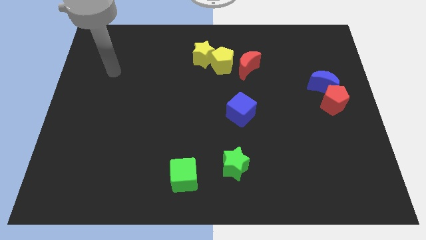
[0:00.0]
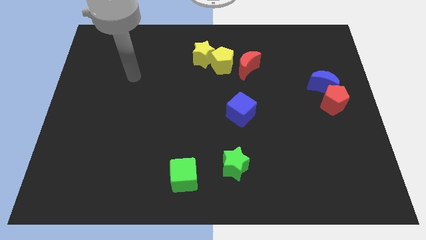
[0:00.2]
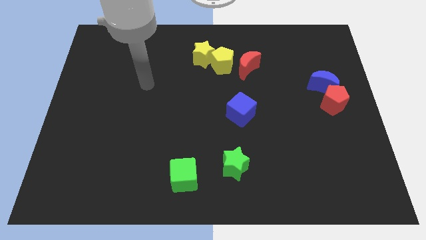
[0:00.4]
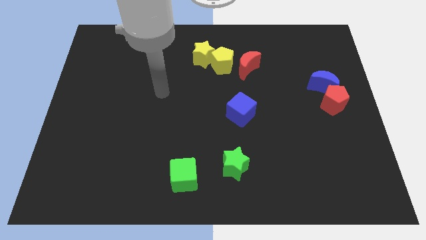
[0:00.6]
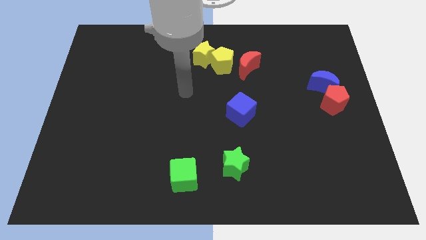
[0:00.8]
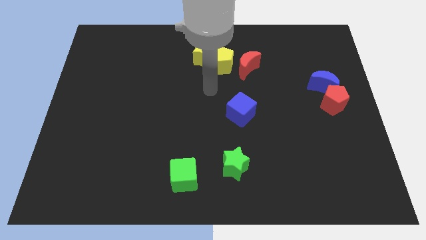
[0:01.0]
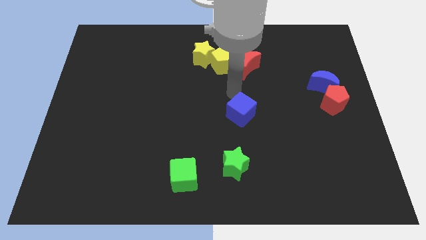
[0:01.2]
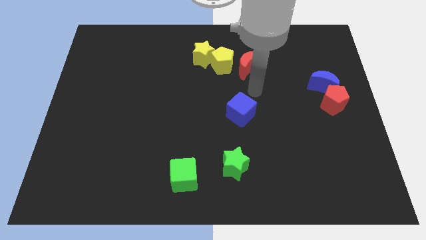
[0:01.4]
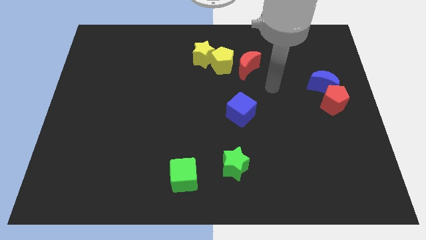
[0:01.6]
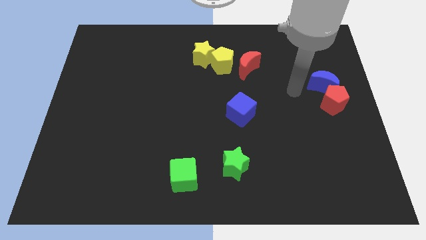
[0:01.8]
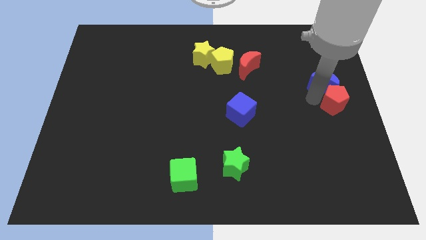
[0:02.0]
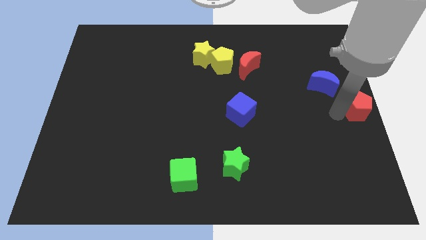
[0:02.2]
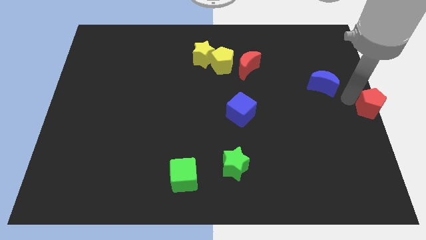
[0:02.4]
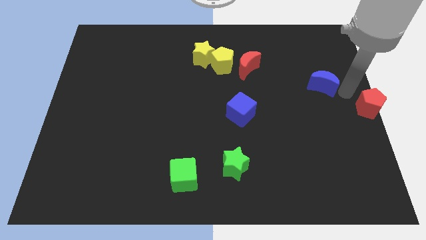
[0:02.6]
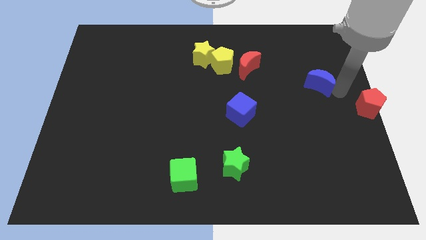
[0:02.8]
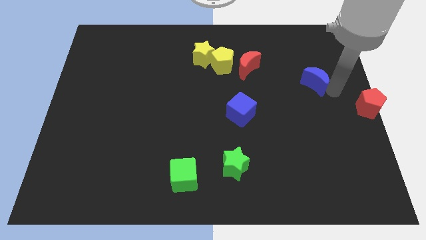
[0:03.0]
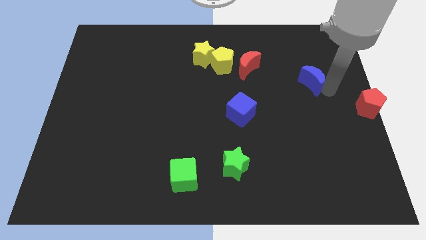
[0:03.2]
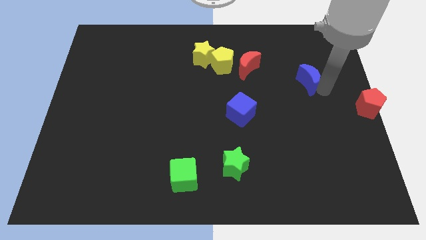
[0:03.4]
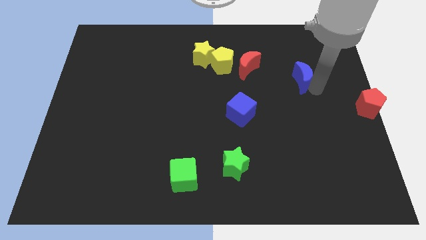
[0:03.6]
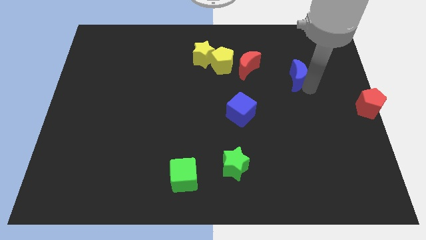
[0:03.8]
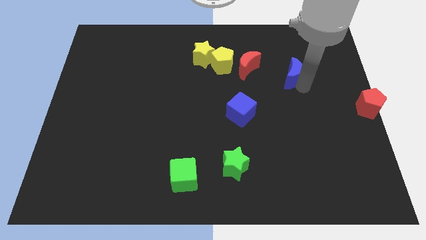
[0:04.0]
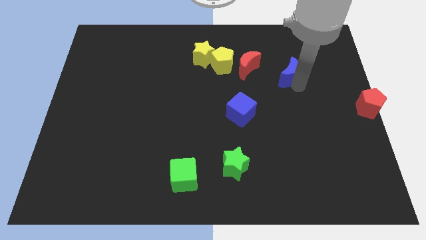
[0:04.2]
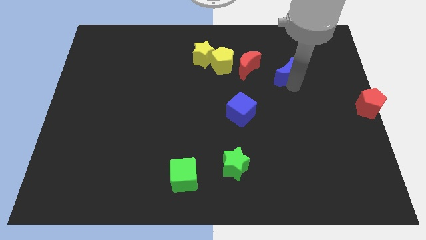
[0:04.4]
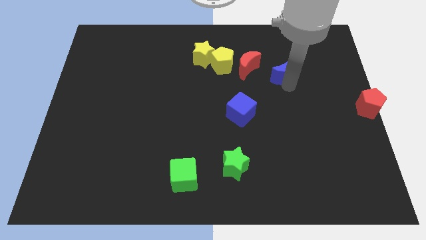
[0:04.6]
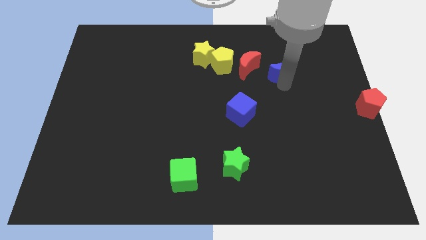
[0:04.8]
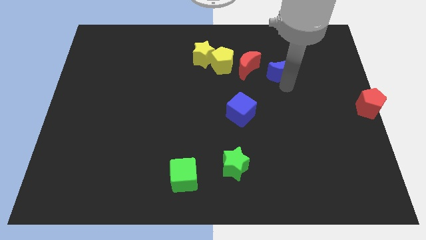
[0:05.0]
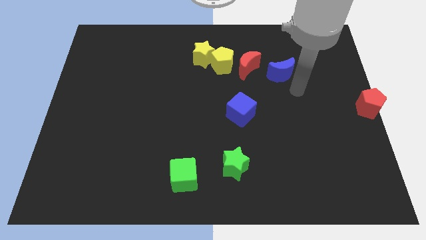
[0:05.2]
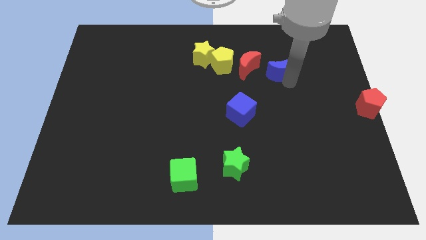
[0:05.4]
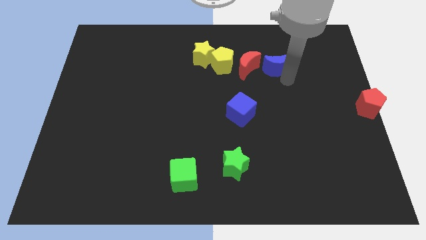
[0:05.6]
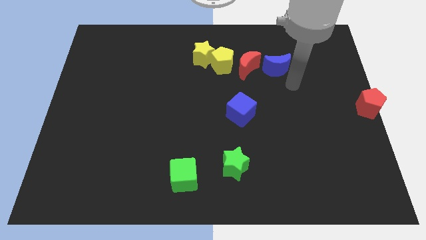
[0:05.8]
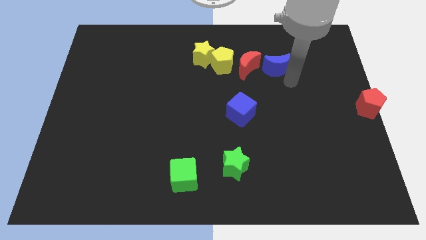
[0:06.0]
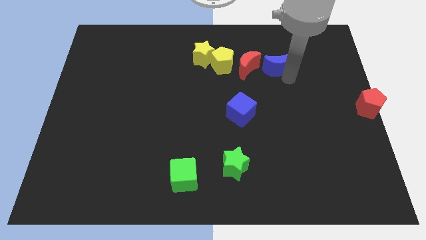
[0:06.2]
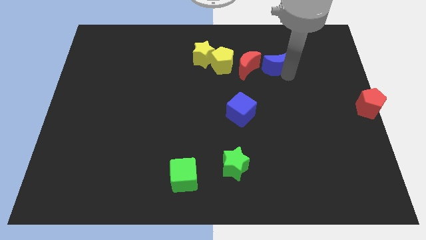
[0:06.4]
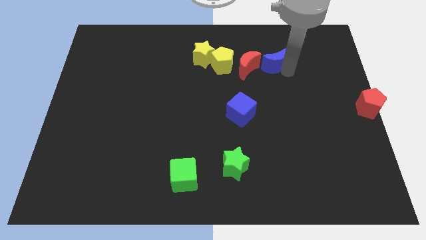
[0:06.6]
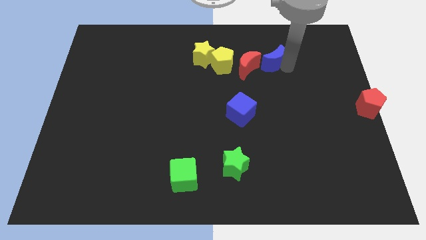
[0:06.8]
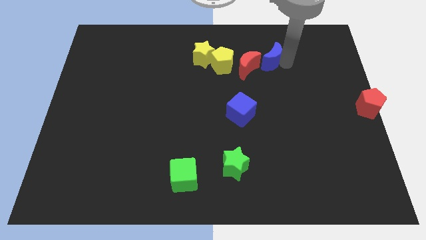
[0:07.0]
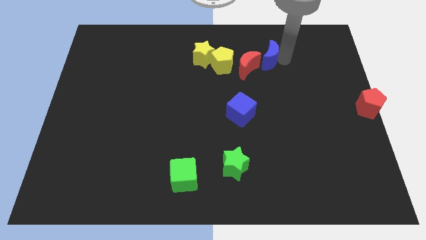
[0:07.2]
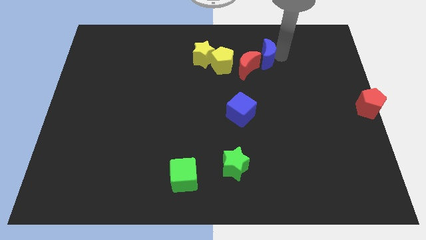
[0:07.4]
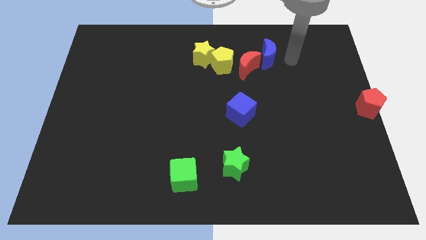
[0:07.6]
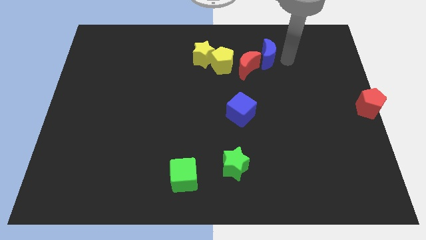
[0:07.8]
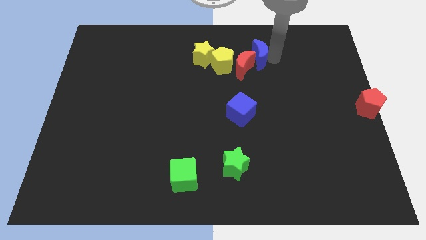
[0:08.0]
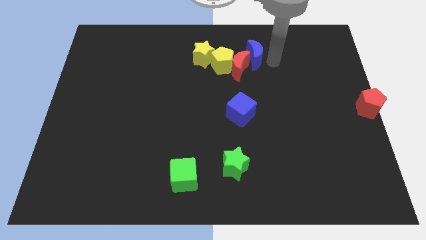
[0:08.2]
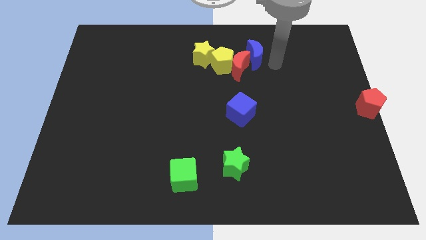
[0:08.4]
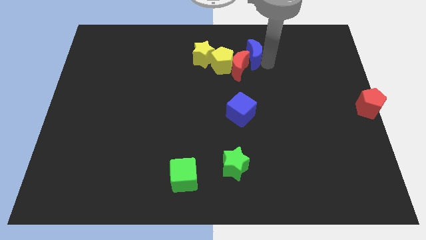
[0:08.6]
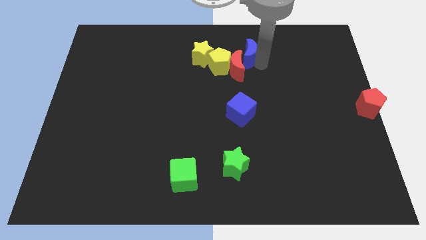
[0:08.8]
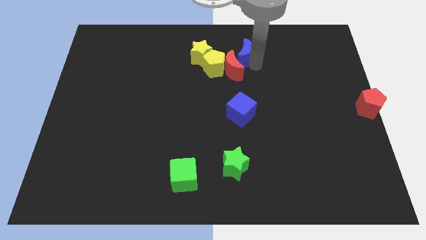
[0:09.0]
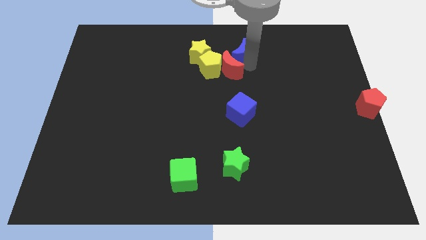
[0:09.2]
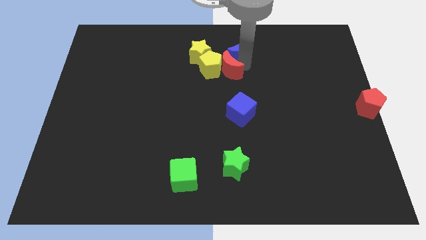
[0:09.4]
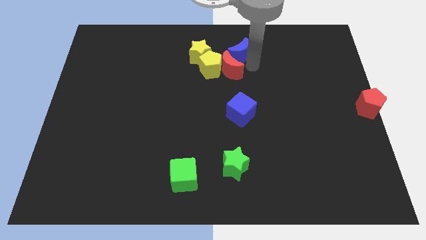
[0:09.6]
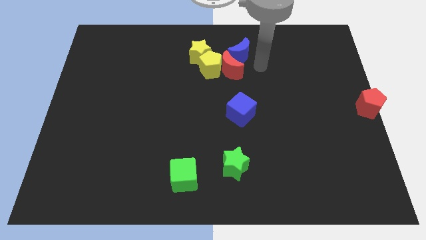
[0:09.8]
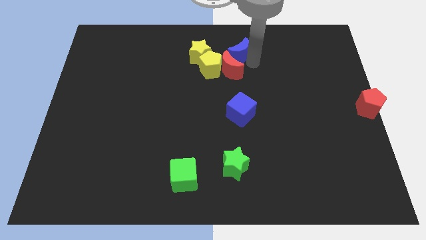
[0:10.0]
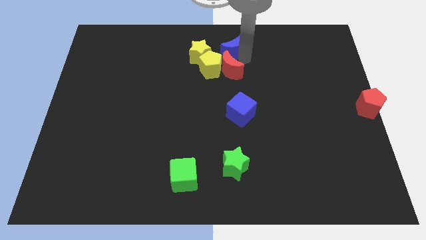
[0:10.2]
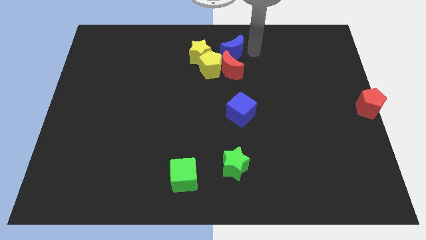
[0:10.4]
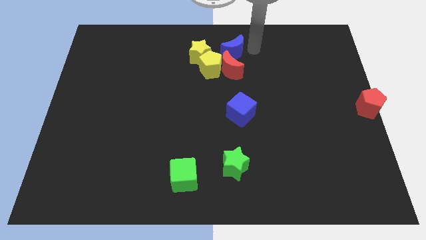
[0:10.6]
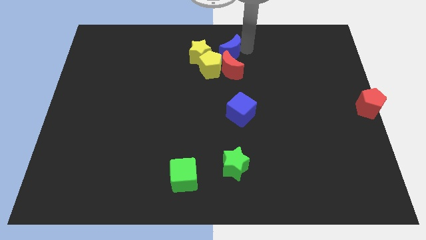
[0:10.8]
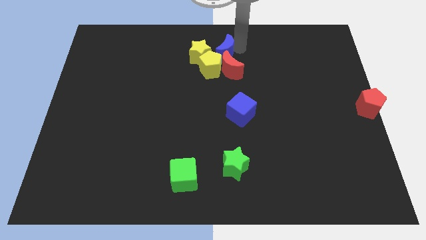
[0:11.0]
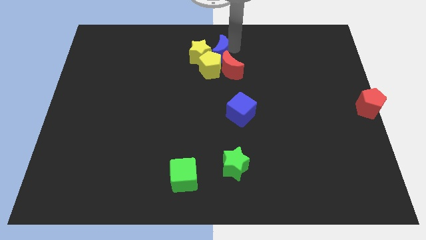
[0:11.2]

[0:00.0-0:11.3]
move the blue moon to the yellow star

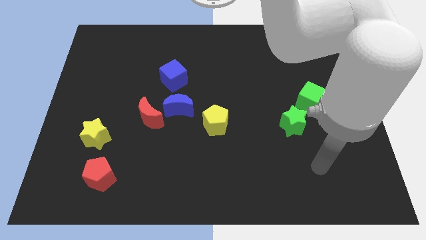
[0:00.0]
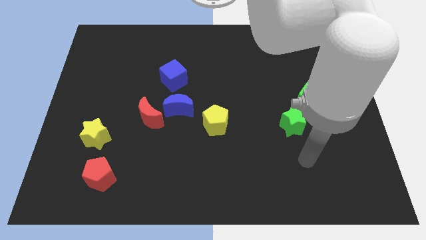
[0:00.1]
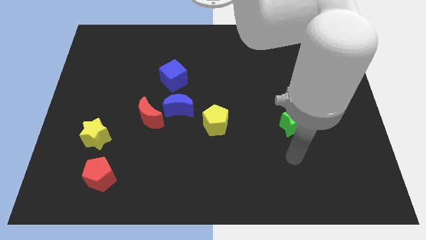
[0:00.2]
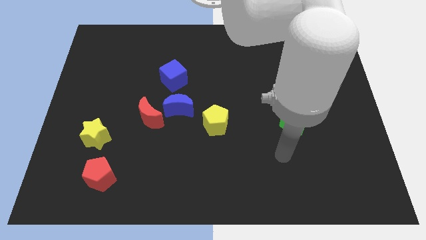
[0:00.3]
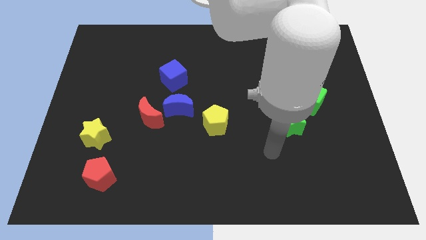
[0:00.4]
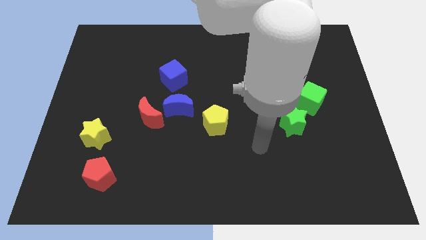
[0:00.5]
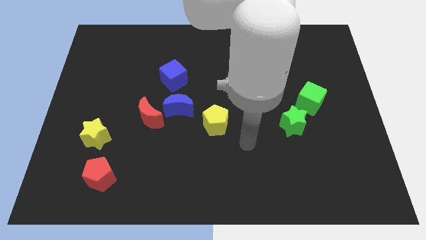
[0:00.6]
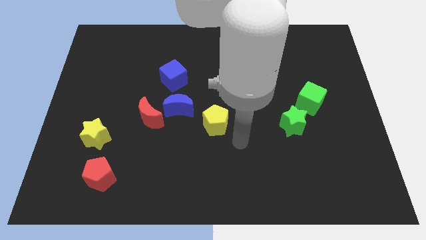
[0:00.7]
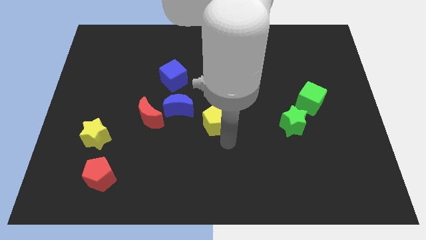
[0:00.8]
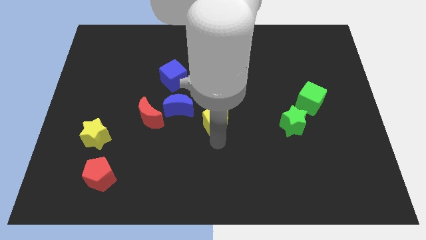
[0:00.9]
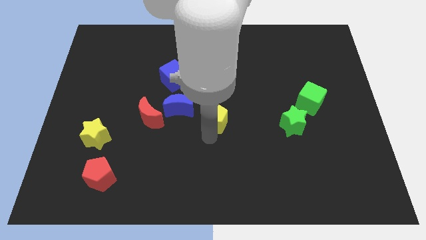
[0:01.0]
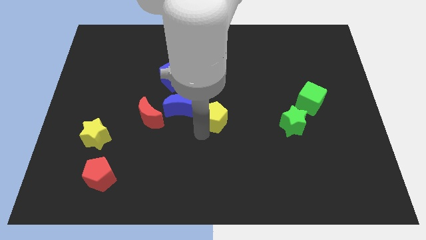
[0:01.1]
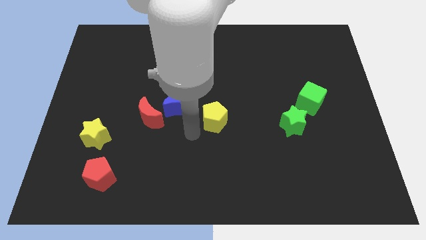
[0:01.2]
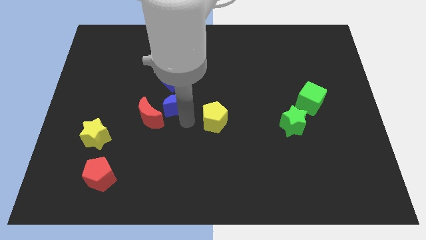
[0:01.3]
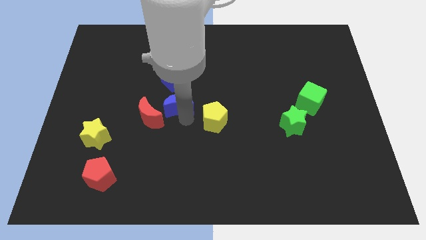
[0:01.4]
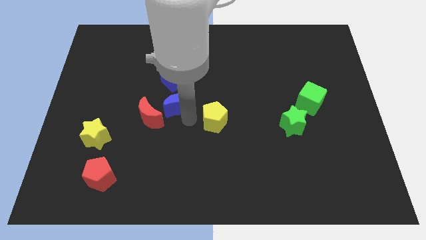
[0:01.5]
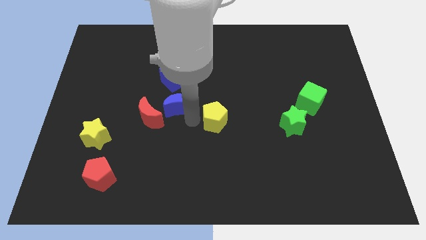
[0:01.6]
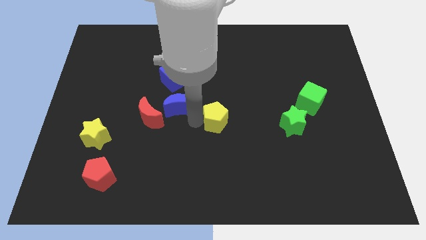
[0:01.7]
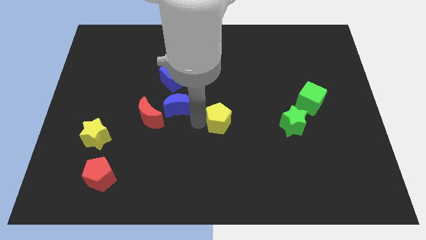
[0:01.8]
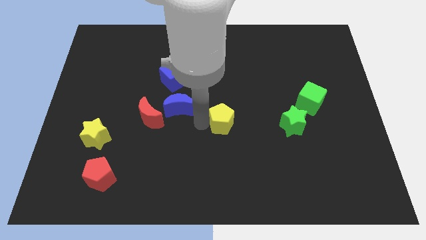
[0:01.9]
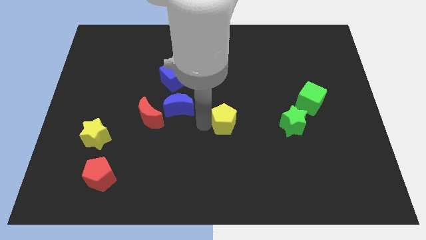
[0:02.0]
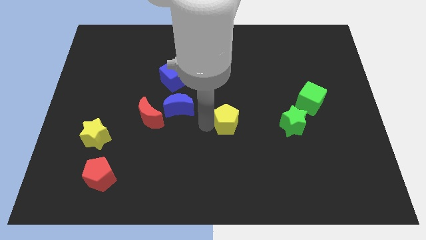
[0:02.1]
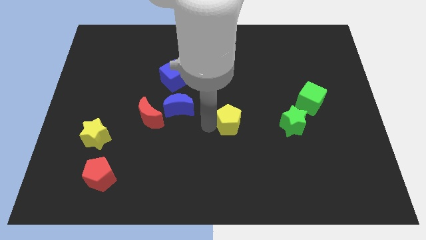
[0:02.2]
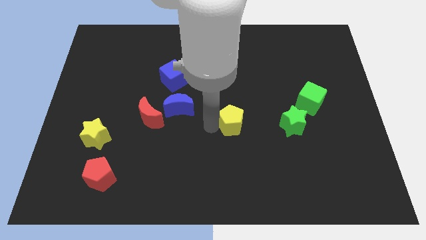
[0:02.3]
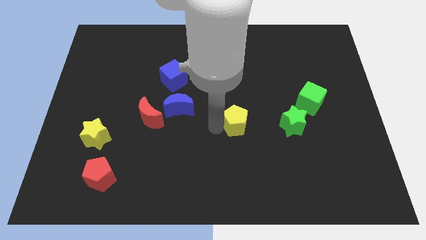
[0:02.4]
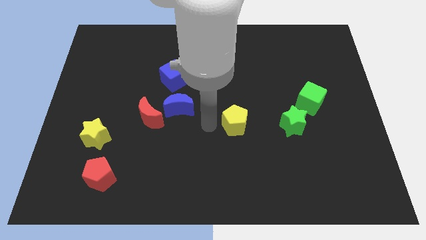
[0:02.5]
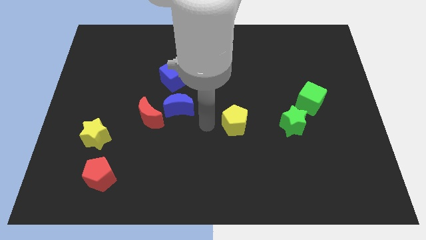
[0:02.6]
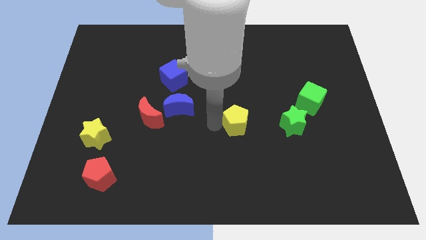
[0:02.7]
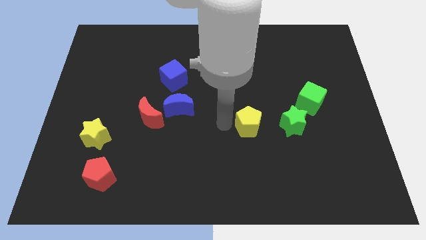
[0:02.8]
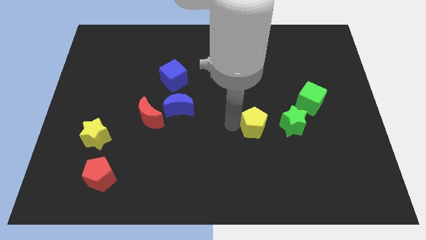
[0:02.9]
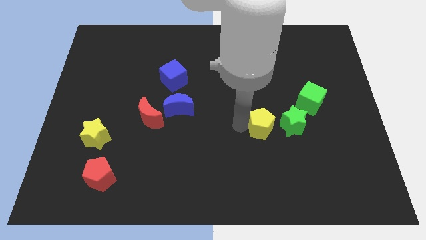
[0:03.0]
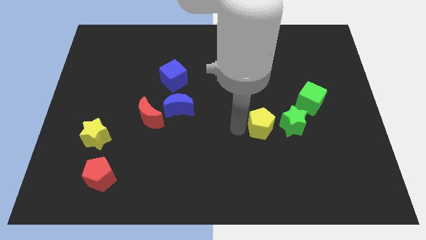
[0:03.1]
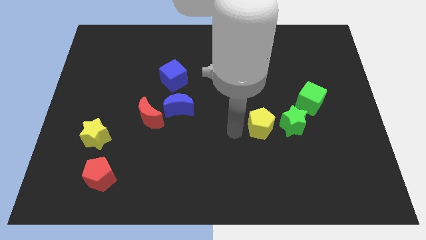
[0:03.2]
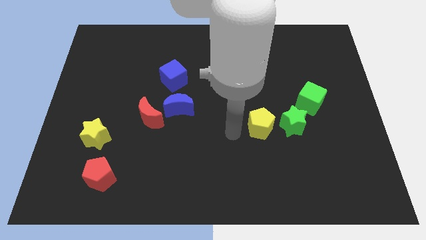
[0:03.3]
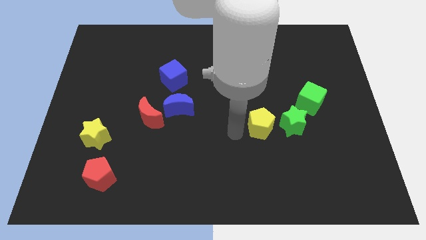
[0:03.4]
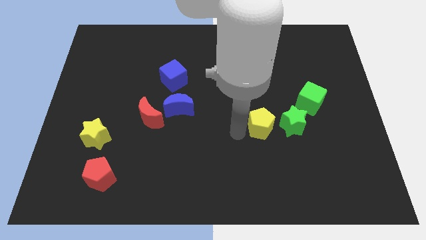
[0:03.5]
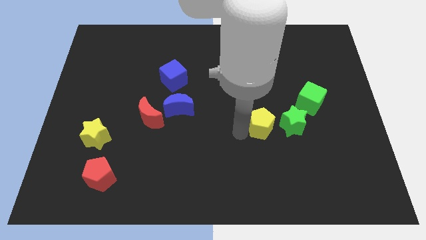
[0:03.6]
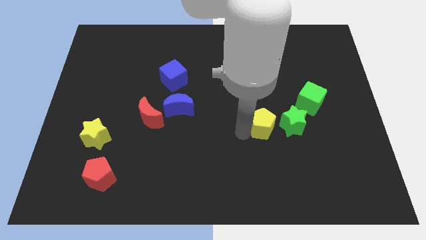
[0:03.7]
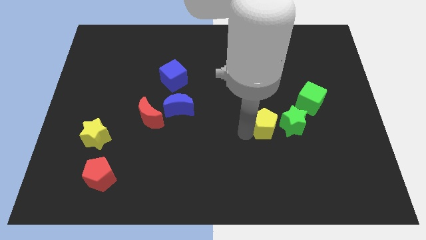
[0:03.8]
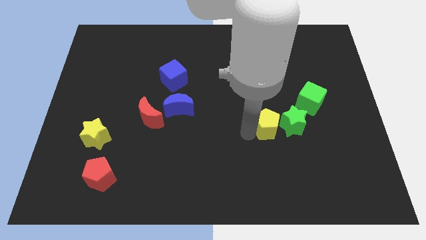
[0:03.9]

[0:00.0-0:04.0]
put the yellow pentagon to the green star
